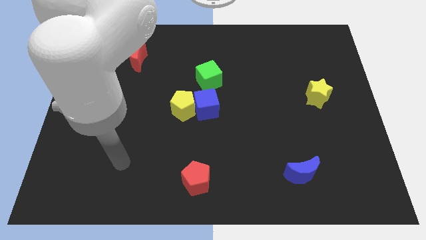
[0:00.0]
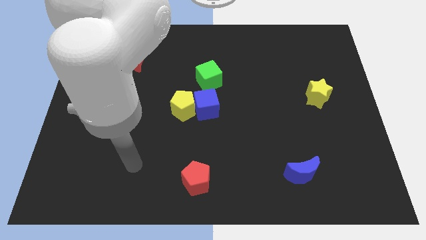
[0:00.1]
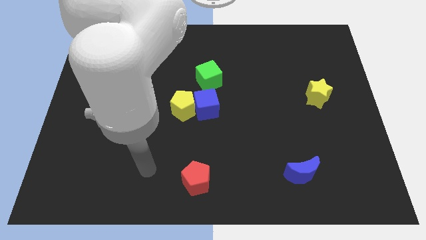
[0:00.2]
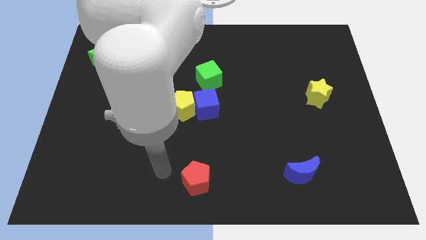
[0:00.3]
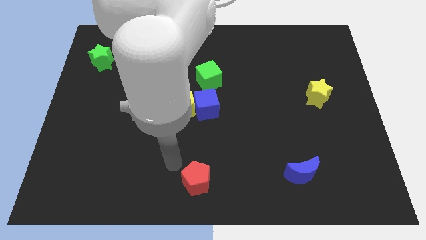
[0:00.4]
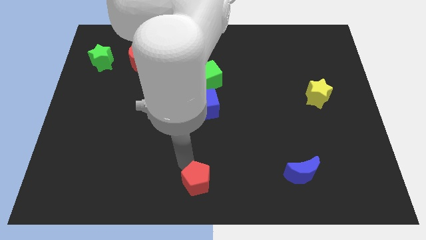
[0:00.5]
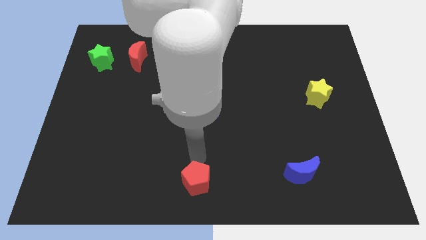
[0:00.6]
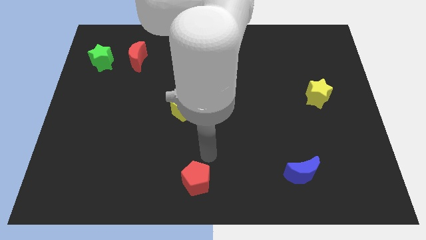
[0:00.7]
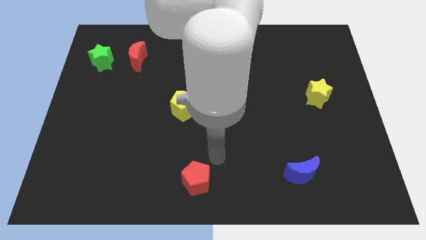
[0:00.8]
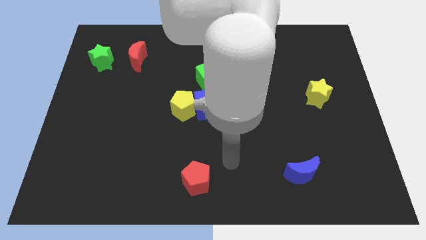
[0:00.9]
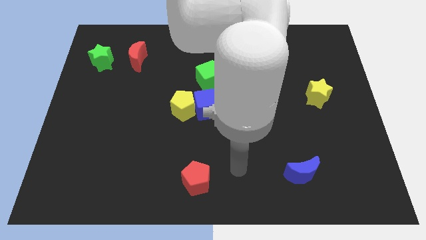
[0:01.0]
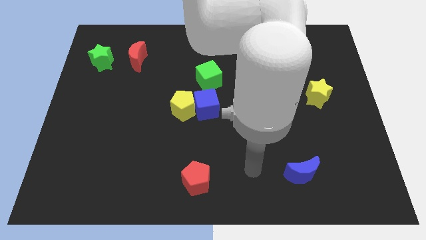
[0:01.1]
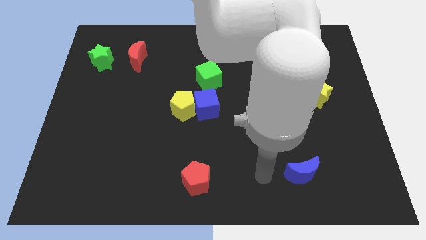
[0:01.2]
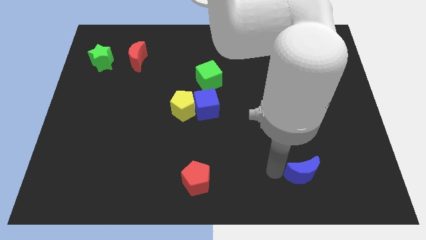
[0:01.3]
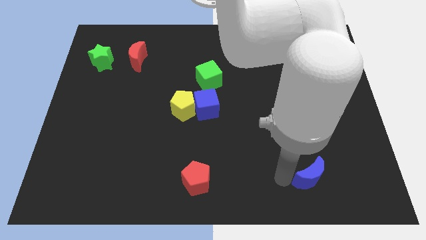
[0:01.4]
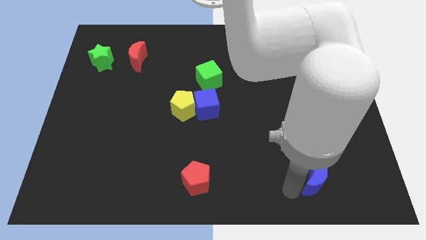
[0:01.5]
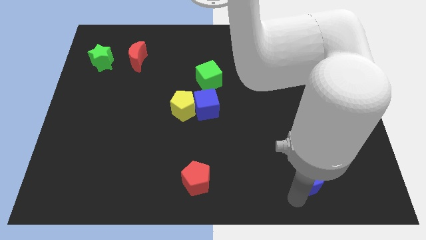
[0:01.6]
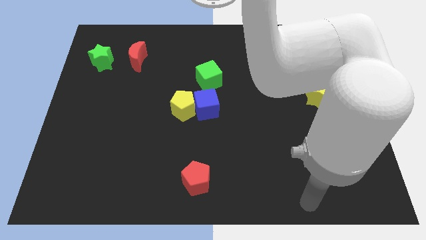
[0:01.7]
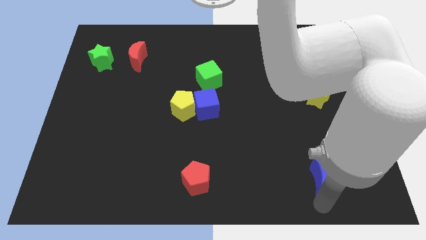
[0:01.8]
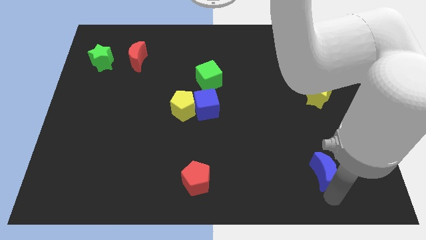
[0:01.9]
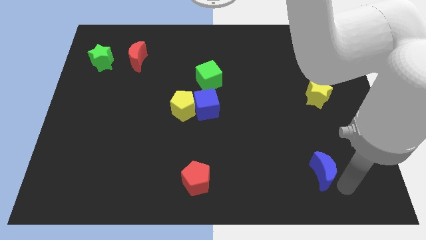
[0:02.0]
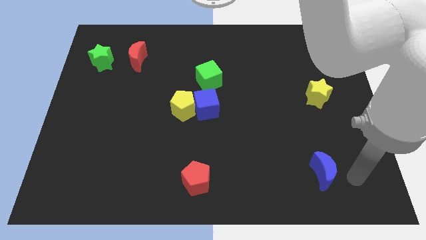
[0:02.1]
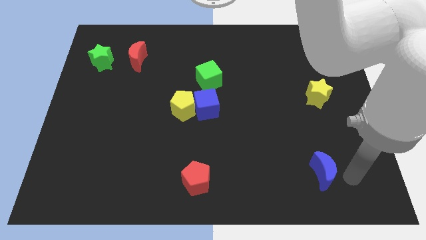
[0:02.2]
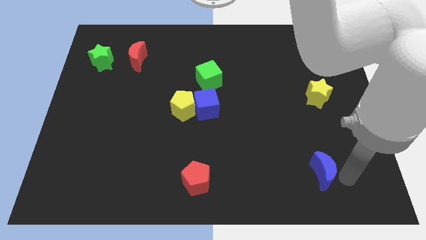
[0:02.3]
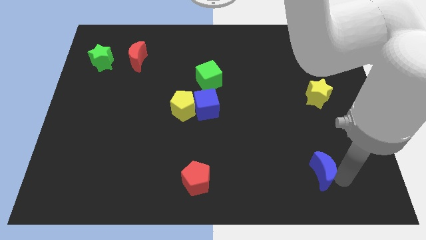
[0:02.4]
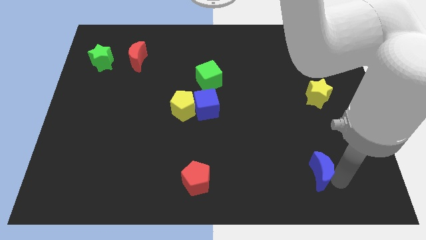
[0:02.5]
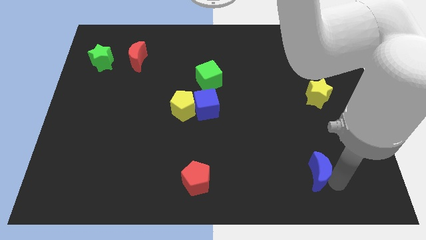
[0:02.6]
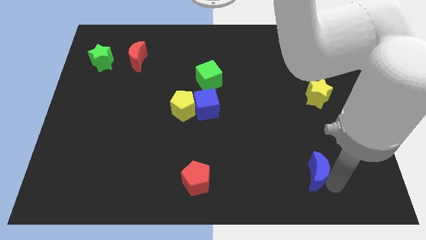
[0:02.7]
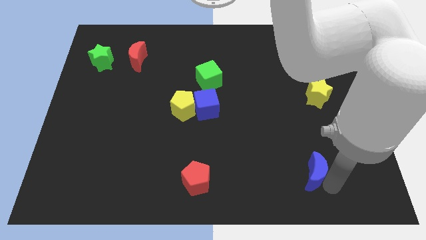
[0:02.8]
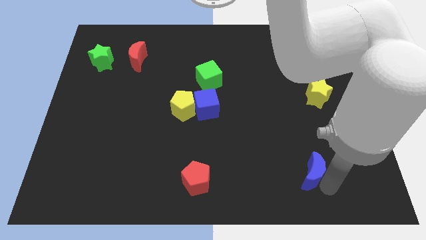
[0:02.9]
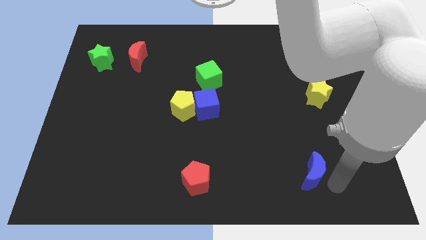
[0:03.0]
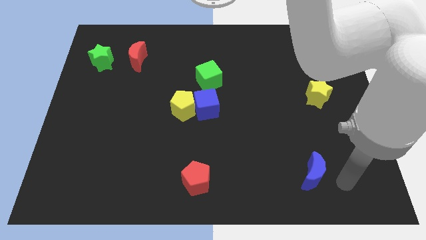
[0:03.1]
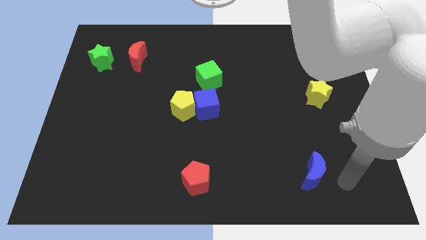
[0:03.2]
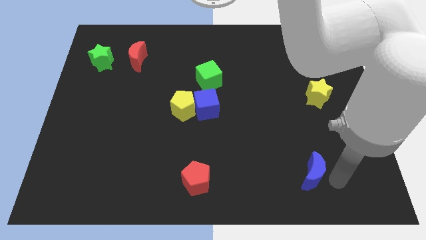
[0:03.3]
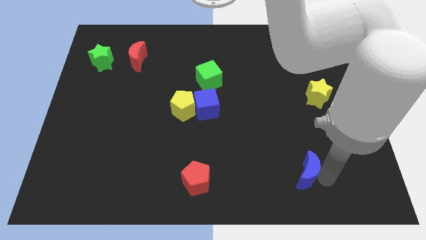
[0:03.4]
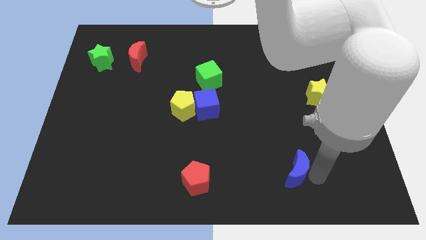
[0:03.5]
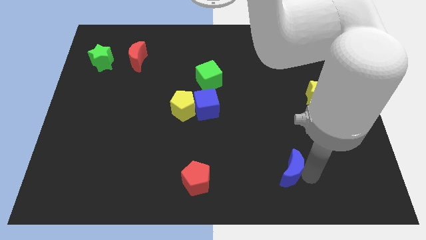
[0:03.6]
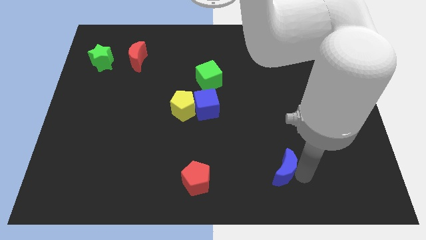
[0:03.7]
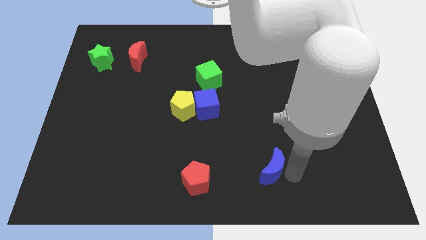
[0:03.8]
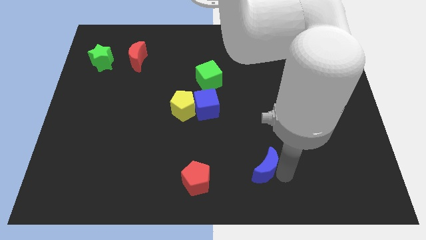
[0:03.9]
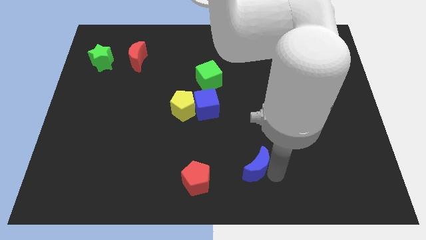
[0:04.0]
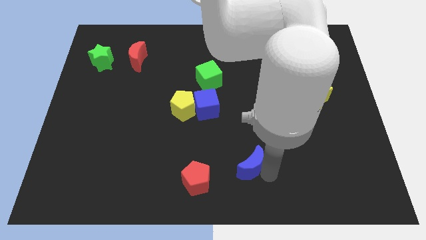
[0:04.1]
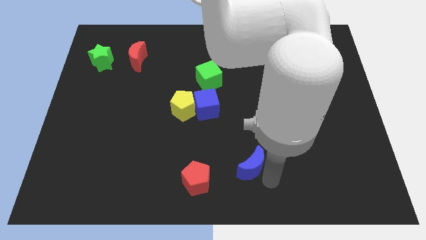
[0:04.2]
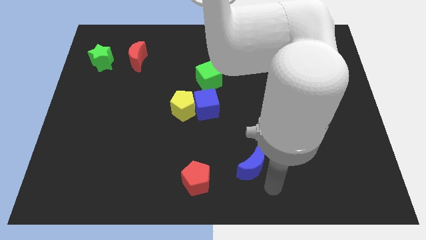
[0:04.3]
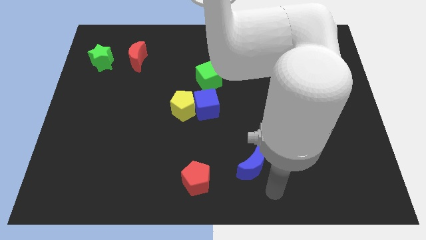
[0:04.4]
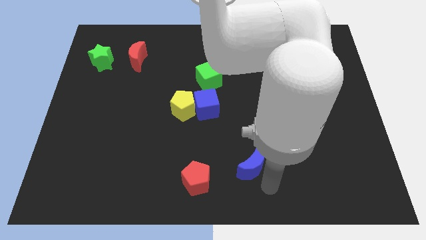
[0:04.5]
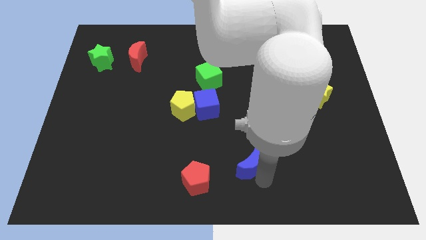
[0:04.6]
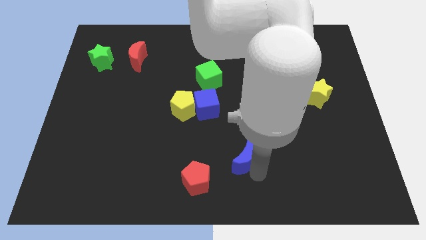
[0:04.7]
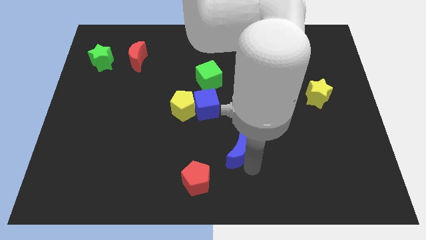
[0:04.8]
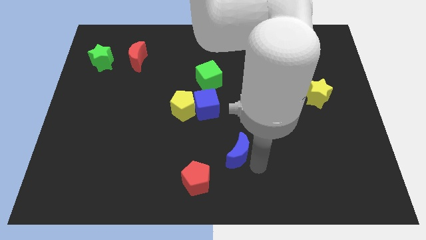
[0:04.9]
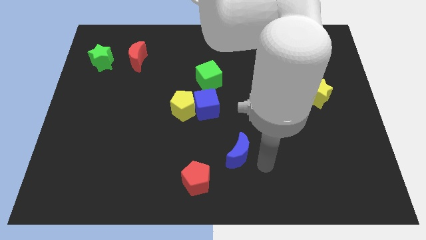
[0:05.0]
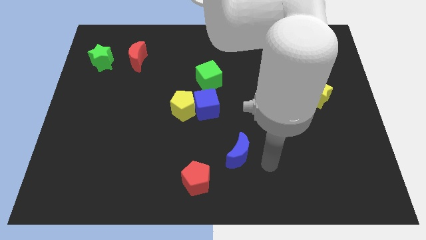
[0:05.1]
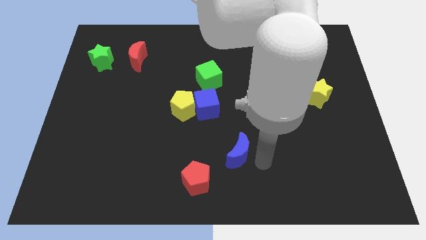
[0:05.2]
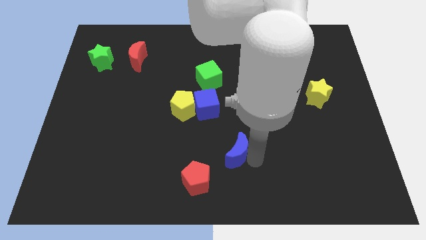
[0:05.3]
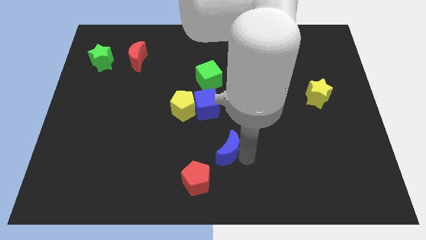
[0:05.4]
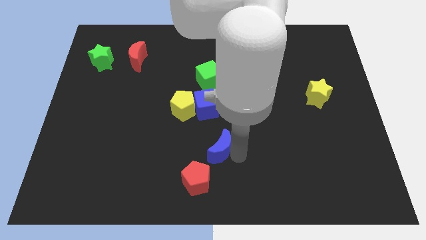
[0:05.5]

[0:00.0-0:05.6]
move the blue moon below the blue cube

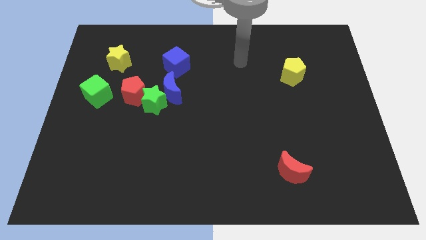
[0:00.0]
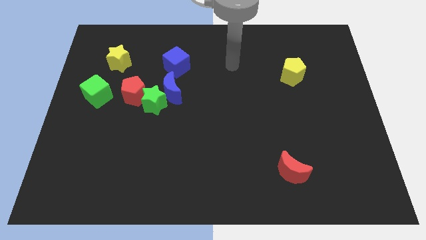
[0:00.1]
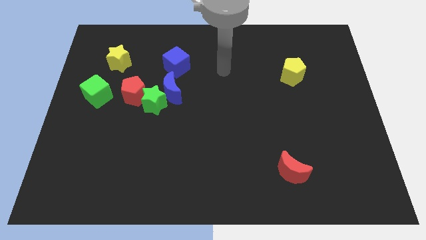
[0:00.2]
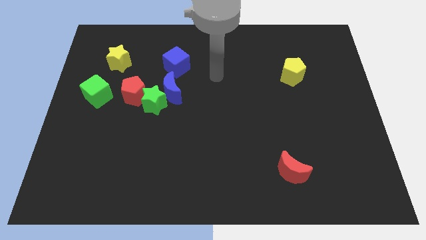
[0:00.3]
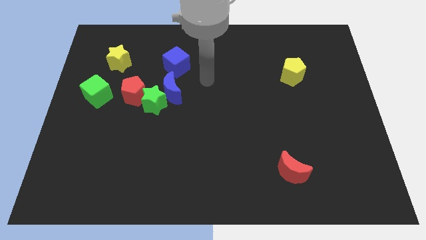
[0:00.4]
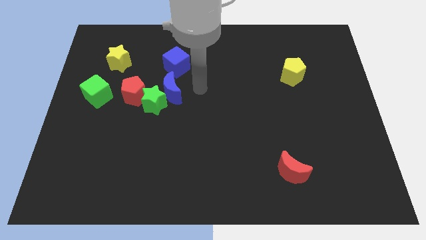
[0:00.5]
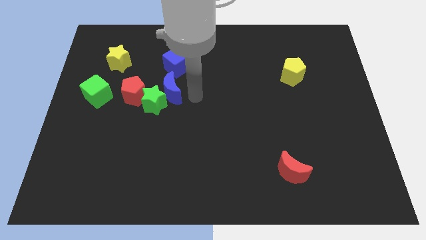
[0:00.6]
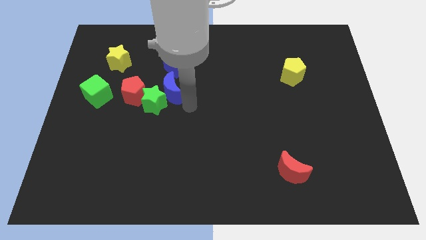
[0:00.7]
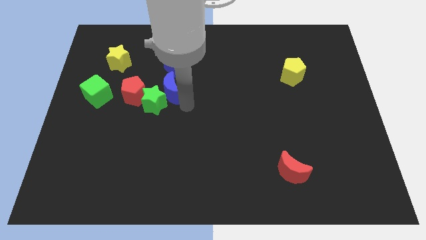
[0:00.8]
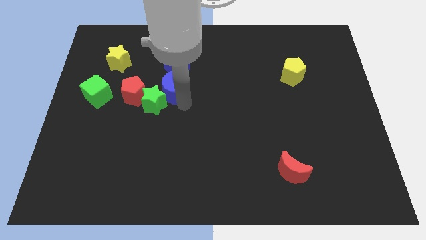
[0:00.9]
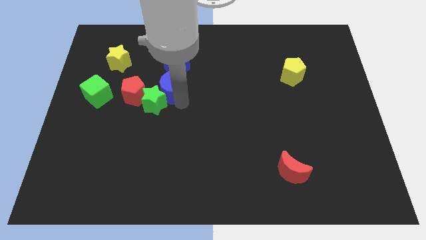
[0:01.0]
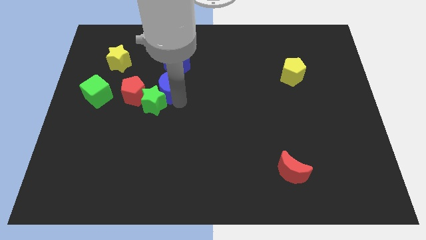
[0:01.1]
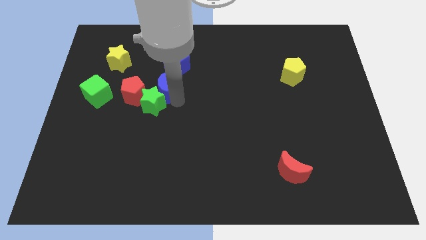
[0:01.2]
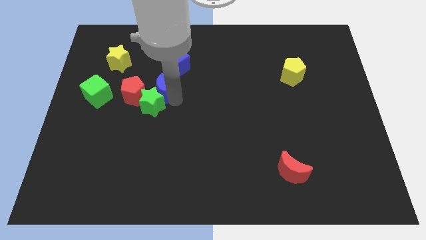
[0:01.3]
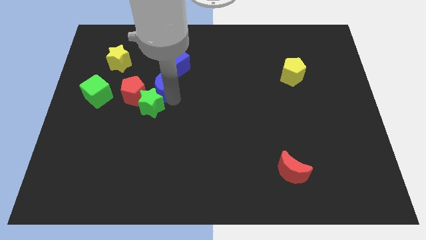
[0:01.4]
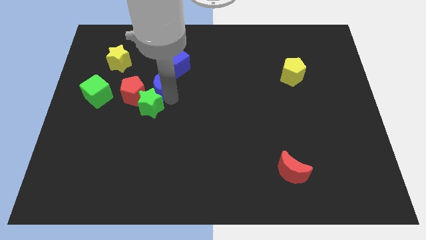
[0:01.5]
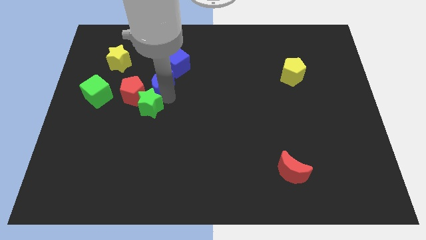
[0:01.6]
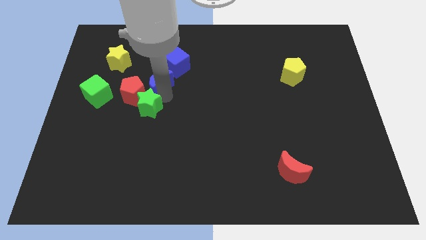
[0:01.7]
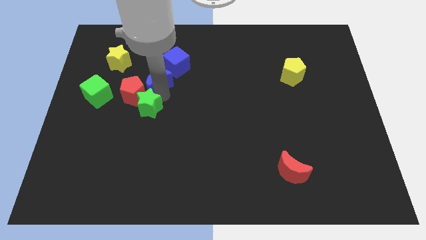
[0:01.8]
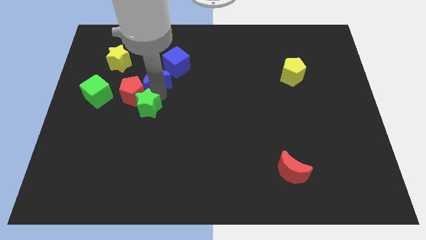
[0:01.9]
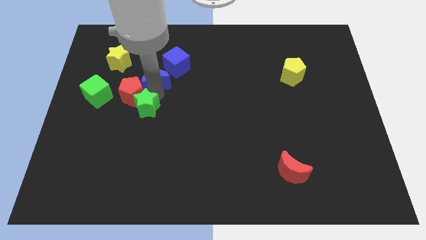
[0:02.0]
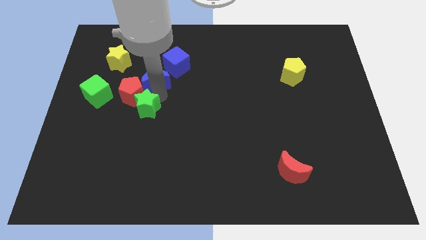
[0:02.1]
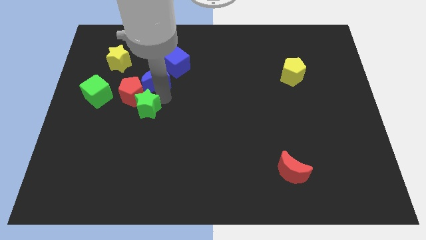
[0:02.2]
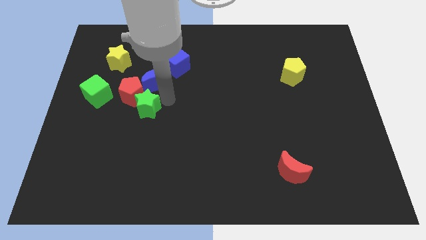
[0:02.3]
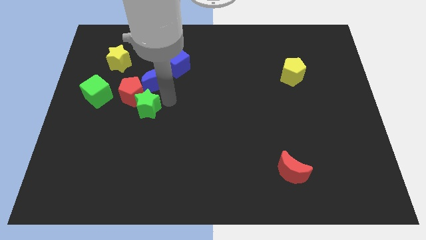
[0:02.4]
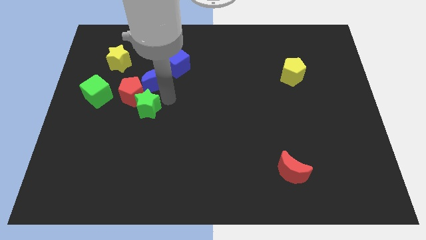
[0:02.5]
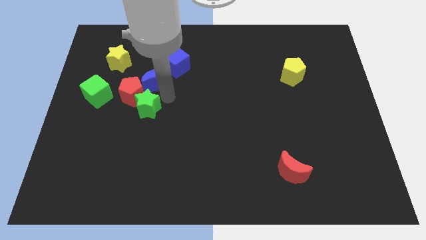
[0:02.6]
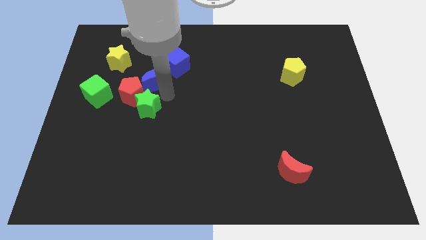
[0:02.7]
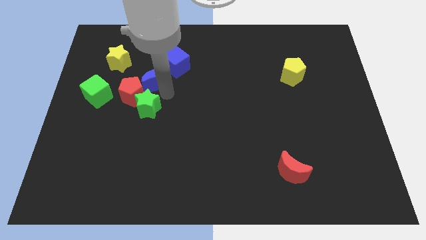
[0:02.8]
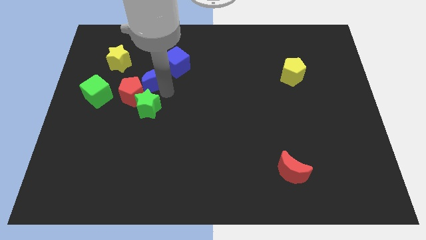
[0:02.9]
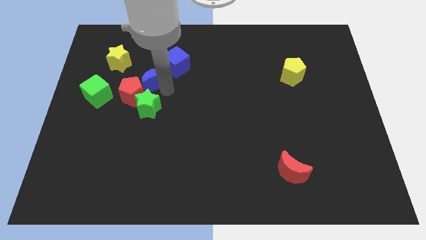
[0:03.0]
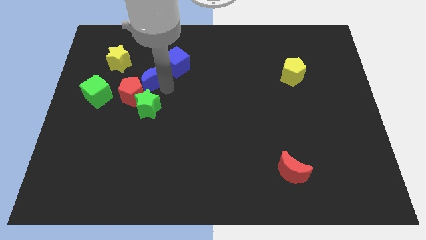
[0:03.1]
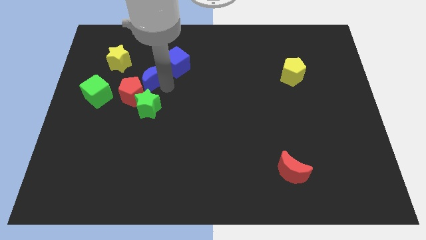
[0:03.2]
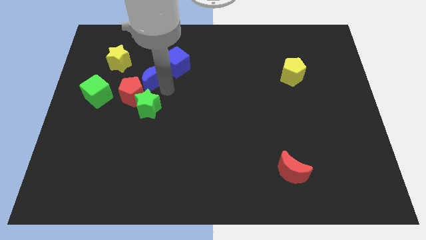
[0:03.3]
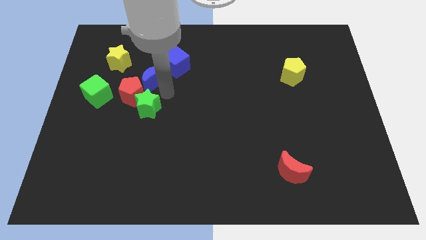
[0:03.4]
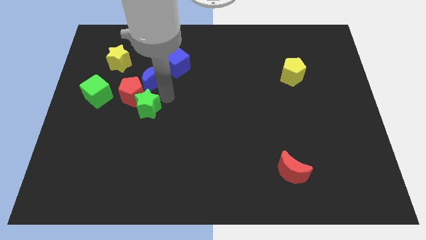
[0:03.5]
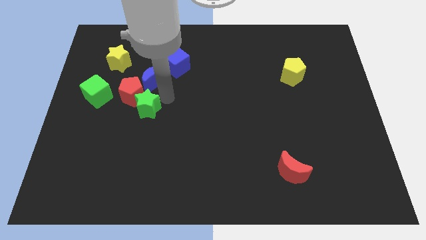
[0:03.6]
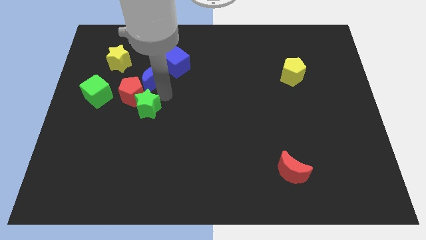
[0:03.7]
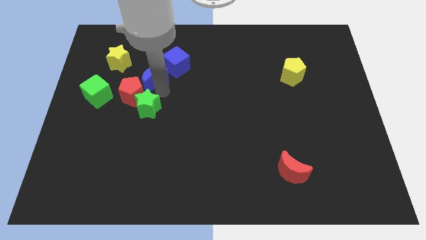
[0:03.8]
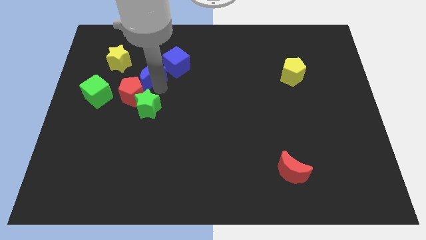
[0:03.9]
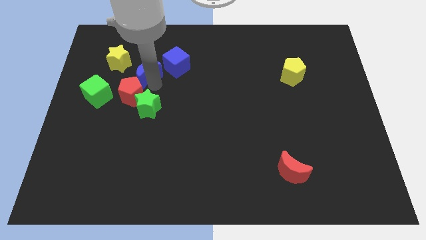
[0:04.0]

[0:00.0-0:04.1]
slide the blue moon just right of the yellow star
